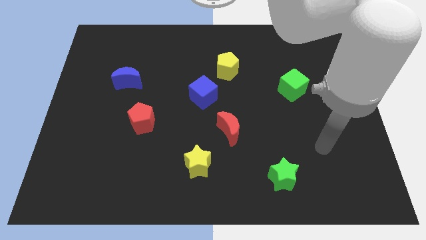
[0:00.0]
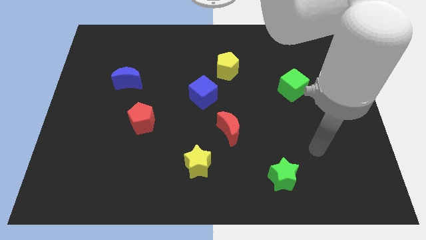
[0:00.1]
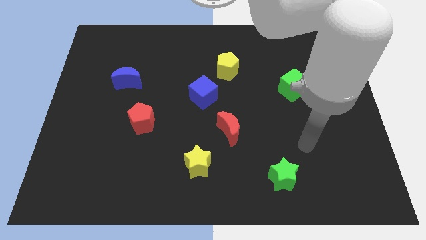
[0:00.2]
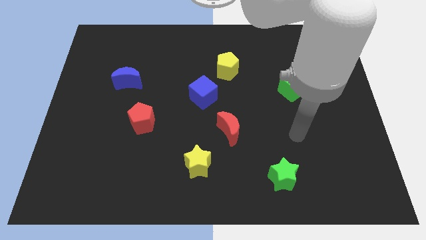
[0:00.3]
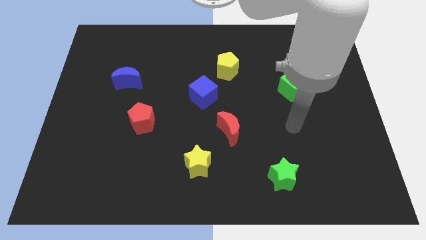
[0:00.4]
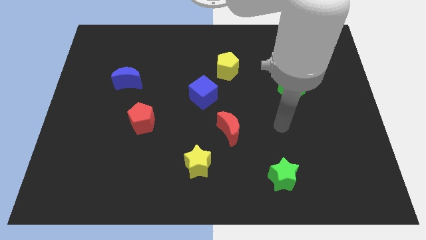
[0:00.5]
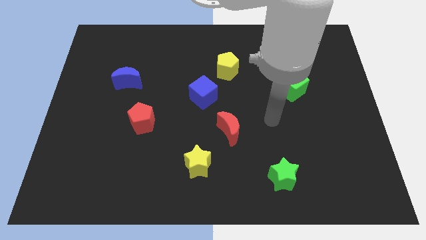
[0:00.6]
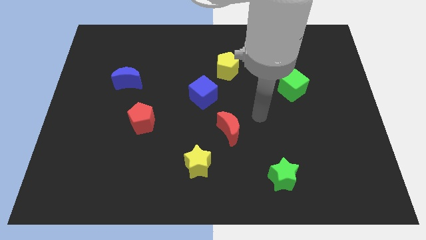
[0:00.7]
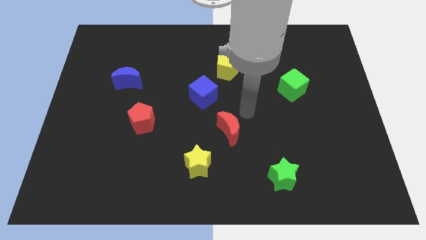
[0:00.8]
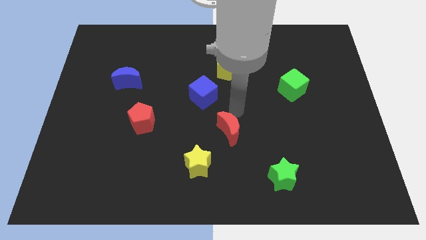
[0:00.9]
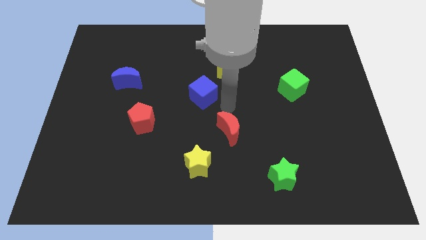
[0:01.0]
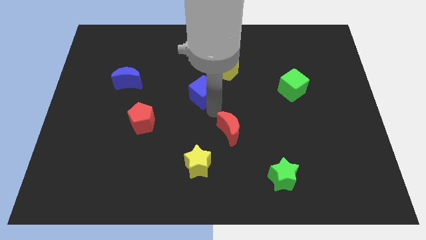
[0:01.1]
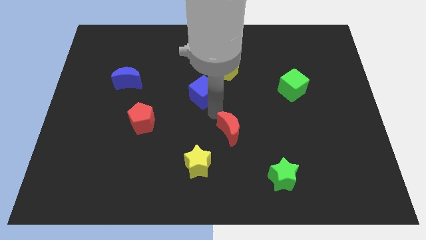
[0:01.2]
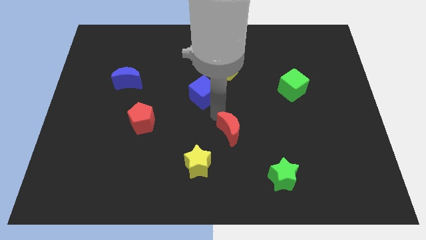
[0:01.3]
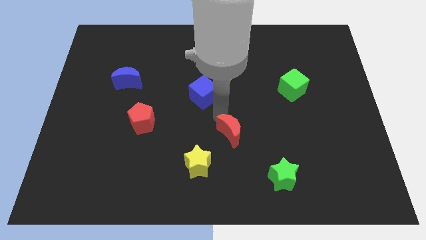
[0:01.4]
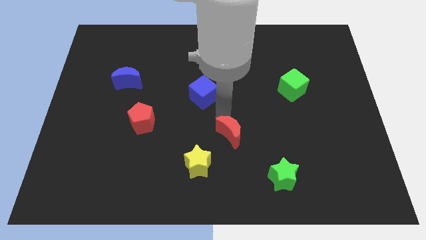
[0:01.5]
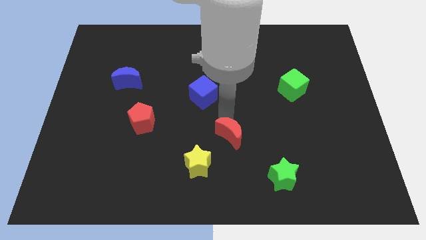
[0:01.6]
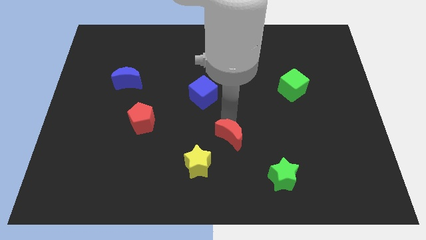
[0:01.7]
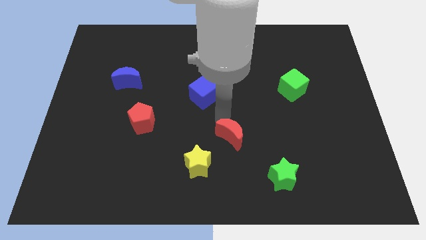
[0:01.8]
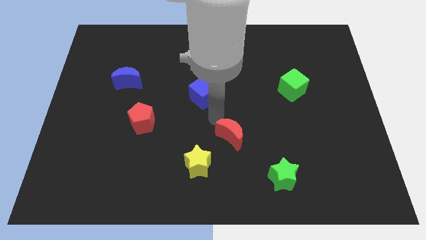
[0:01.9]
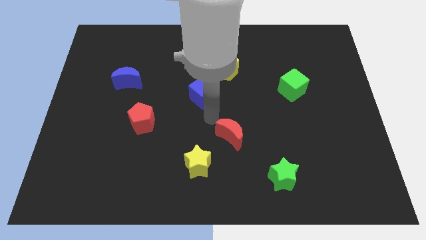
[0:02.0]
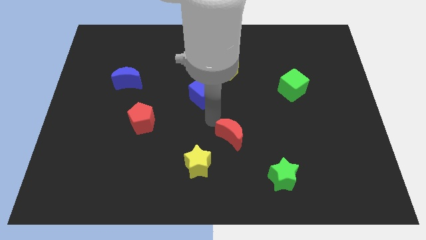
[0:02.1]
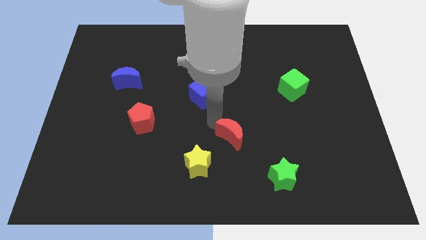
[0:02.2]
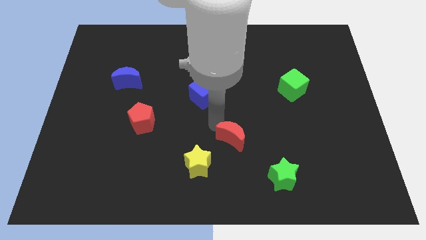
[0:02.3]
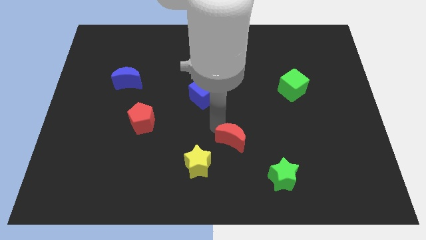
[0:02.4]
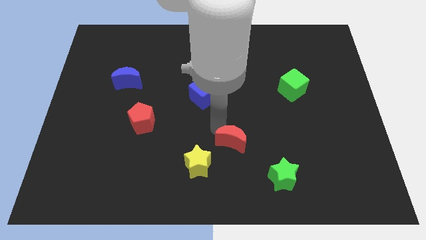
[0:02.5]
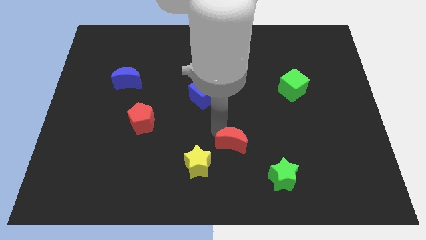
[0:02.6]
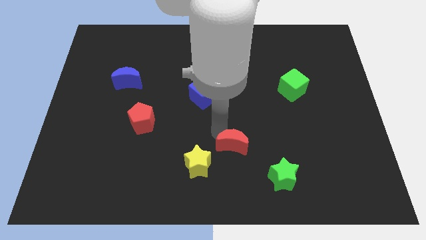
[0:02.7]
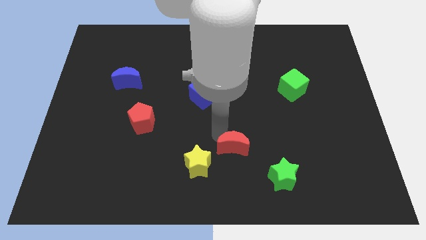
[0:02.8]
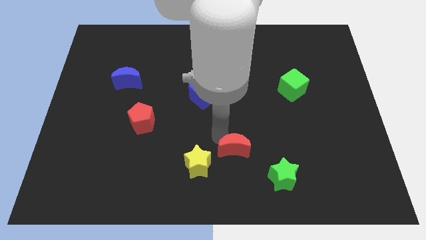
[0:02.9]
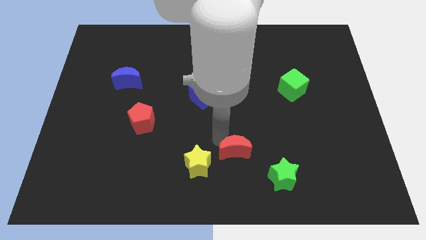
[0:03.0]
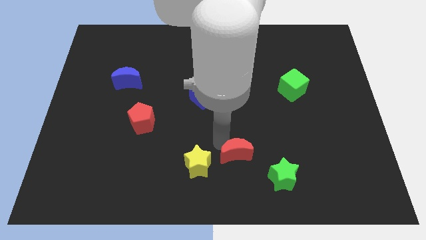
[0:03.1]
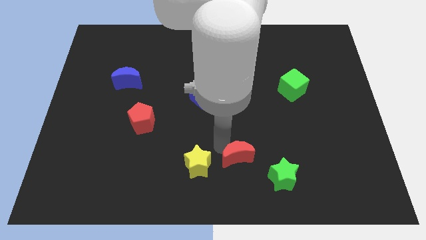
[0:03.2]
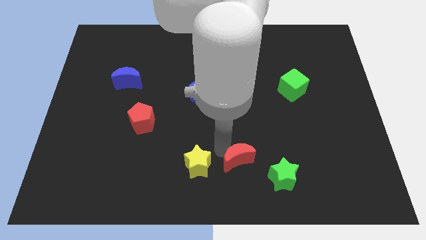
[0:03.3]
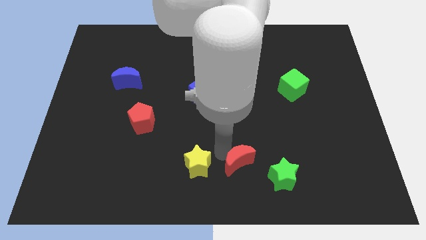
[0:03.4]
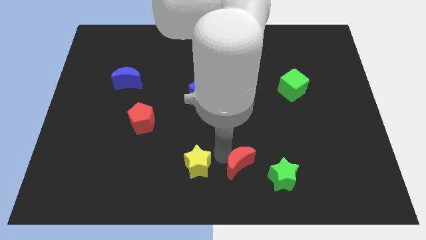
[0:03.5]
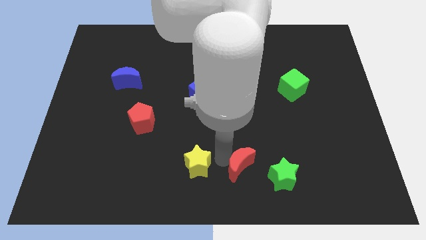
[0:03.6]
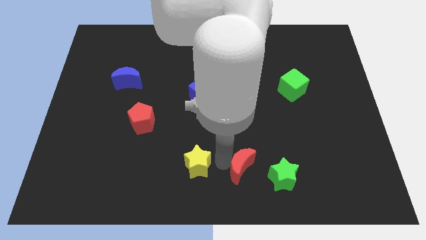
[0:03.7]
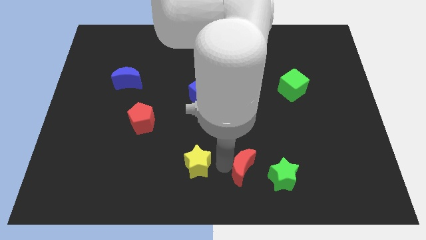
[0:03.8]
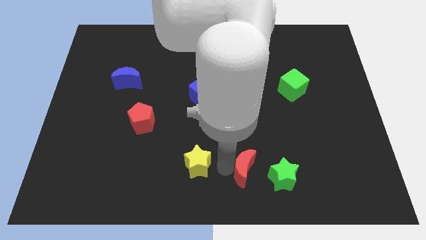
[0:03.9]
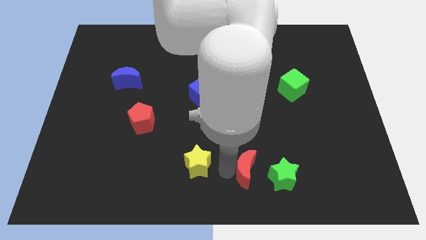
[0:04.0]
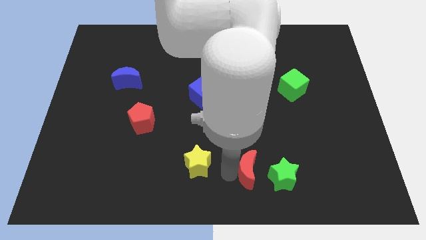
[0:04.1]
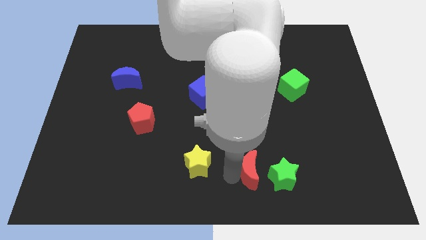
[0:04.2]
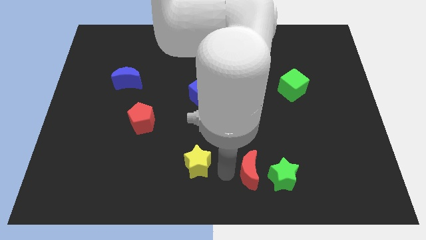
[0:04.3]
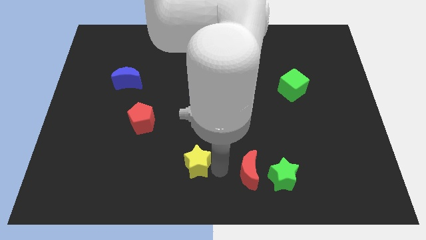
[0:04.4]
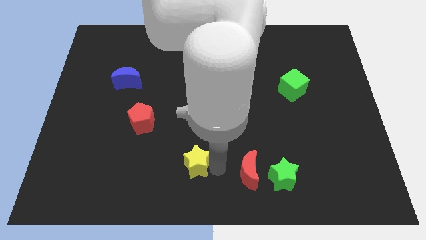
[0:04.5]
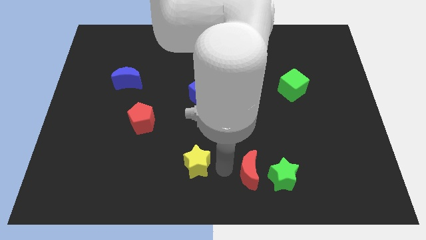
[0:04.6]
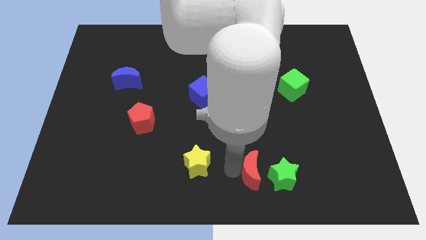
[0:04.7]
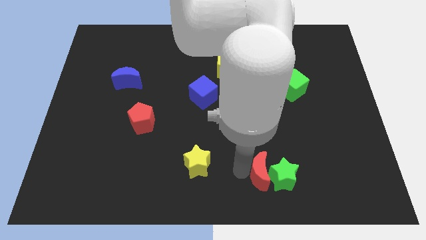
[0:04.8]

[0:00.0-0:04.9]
push the red moon to the green star

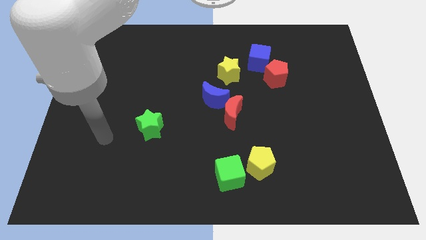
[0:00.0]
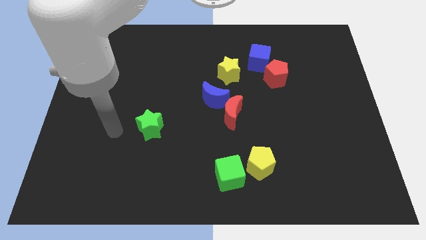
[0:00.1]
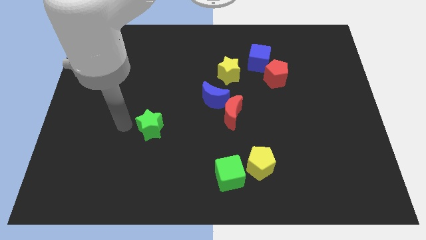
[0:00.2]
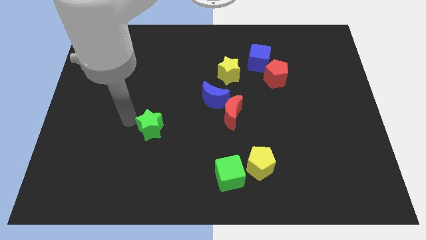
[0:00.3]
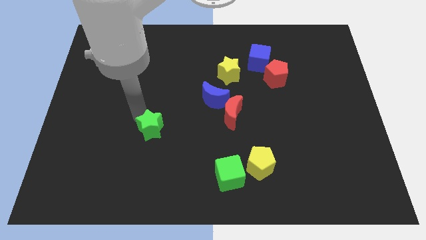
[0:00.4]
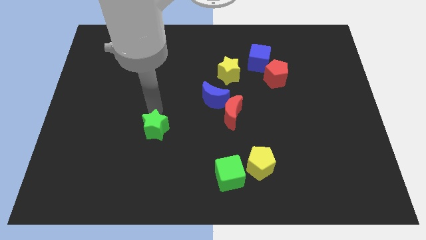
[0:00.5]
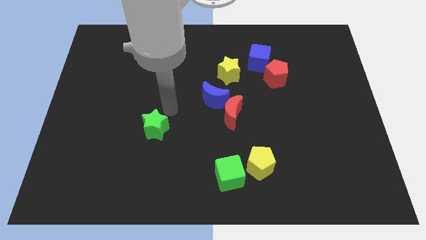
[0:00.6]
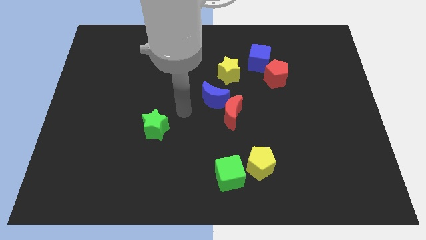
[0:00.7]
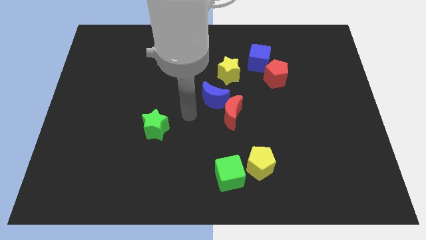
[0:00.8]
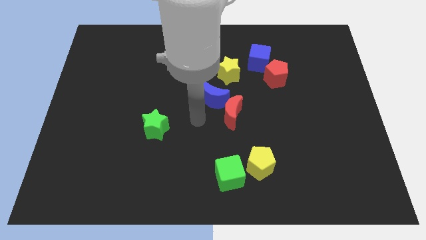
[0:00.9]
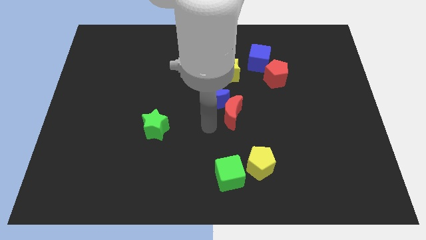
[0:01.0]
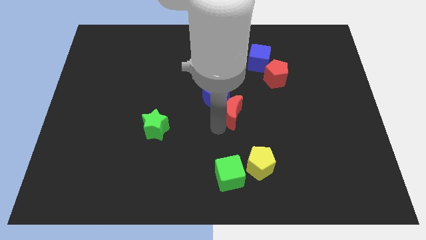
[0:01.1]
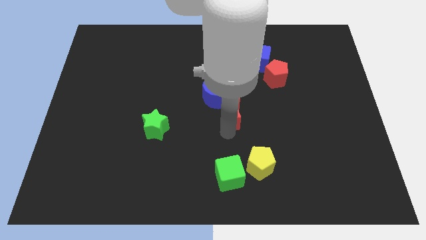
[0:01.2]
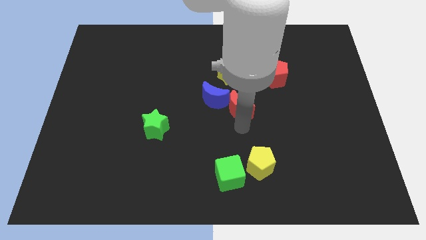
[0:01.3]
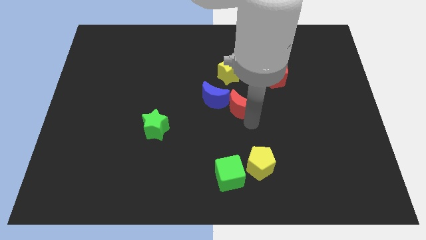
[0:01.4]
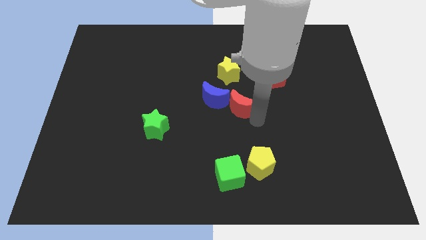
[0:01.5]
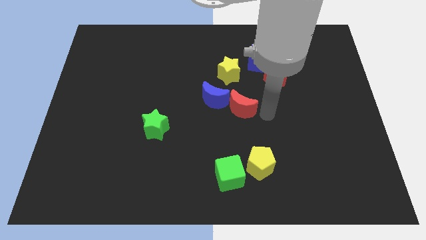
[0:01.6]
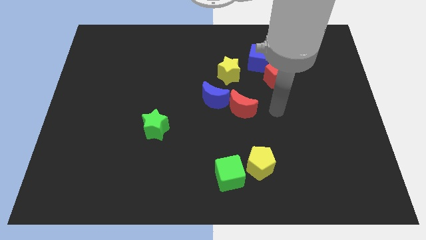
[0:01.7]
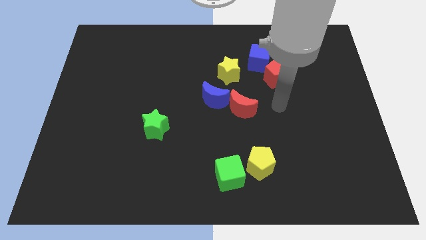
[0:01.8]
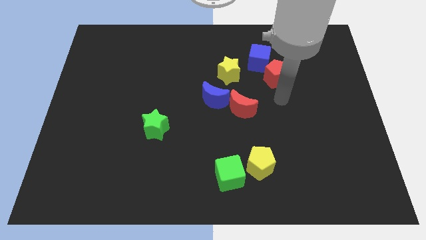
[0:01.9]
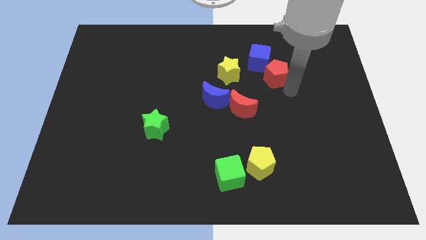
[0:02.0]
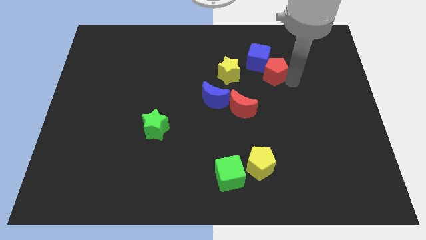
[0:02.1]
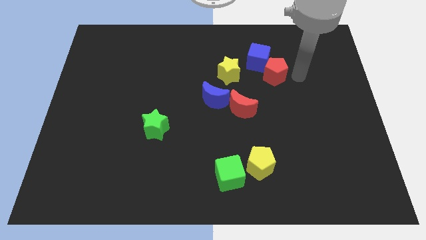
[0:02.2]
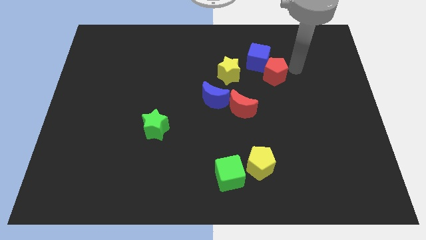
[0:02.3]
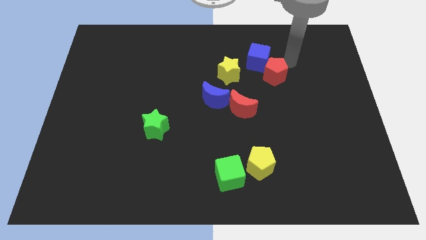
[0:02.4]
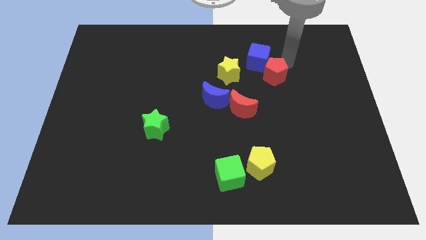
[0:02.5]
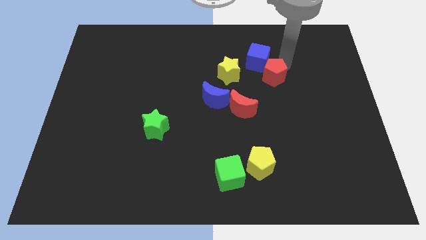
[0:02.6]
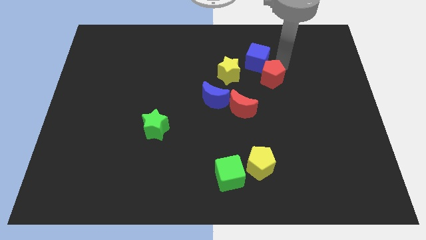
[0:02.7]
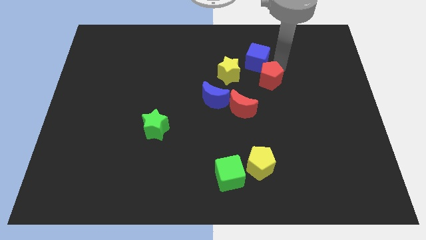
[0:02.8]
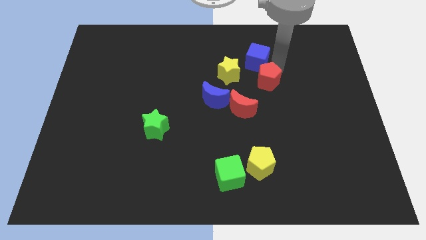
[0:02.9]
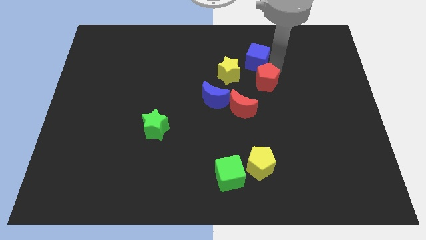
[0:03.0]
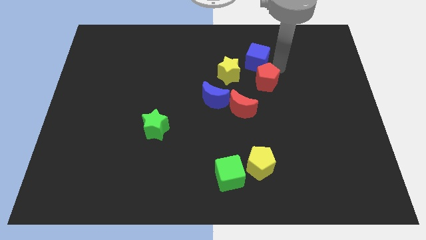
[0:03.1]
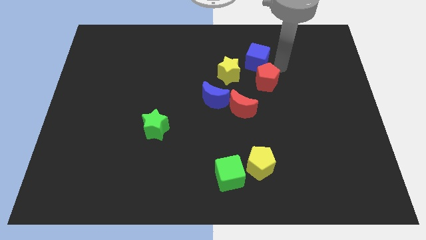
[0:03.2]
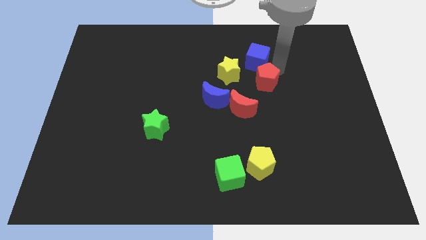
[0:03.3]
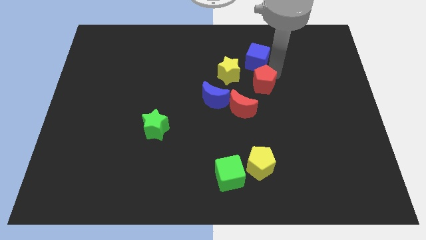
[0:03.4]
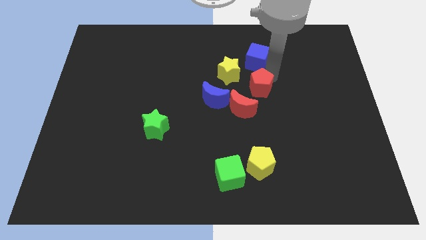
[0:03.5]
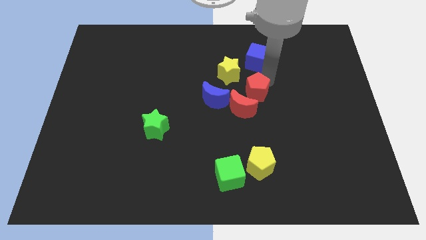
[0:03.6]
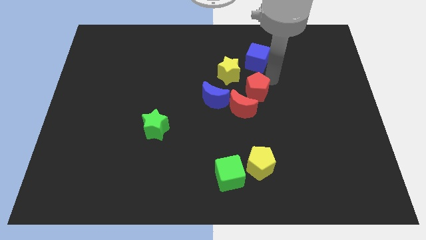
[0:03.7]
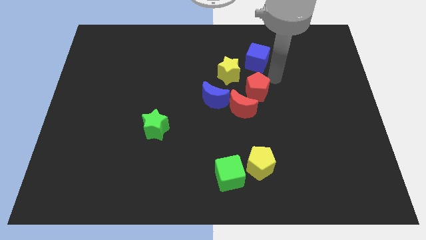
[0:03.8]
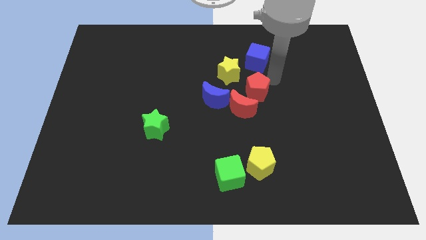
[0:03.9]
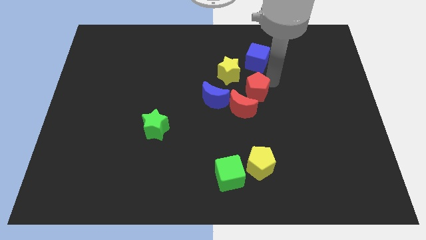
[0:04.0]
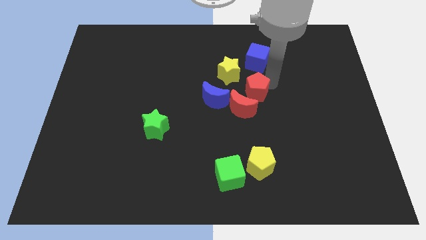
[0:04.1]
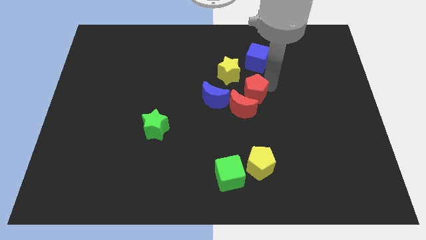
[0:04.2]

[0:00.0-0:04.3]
move the red pentagon next to the red moon
